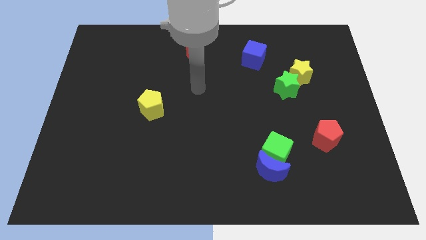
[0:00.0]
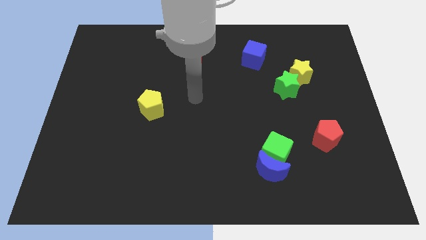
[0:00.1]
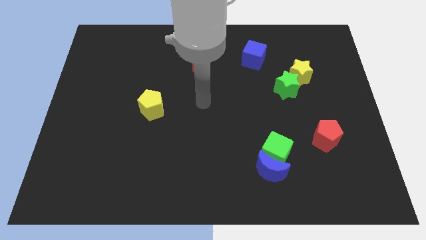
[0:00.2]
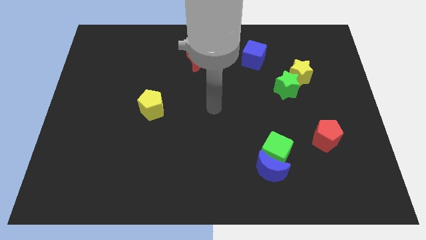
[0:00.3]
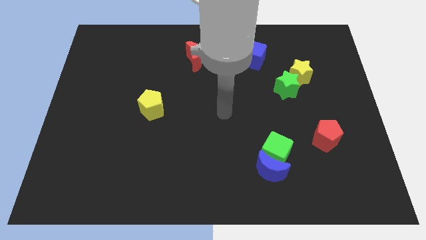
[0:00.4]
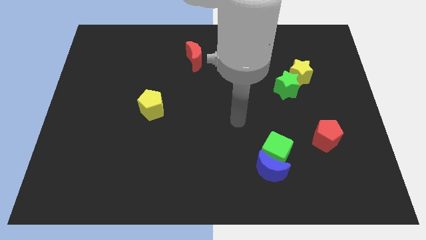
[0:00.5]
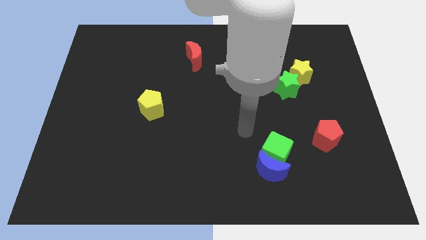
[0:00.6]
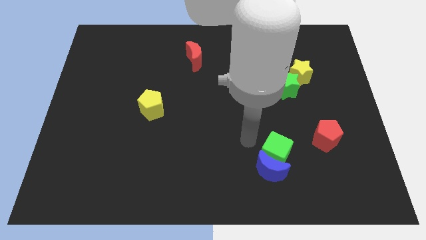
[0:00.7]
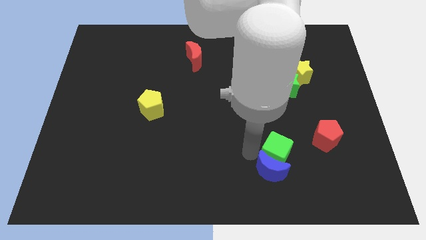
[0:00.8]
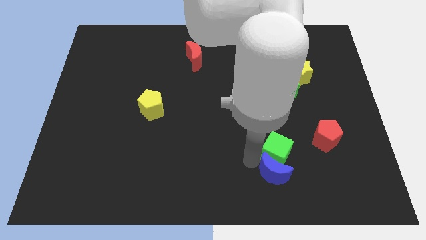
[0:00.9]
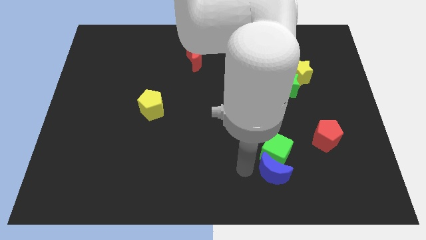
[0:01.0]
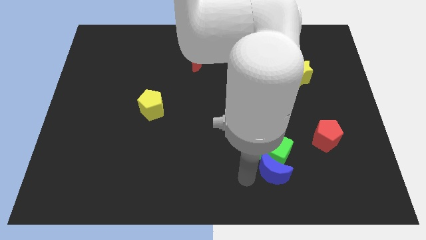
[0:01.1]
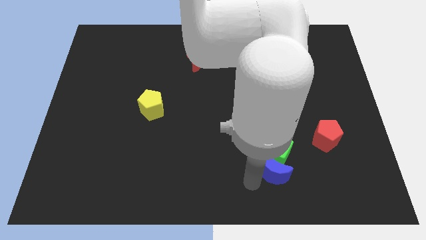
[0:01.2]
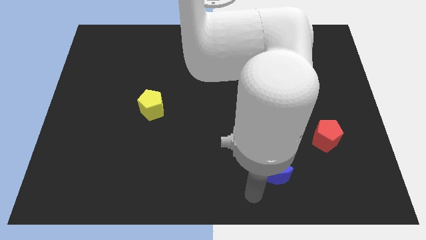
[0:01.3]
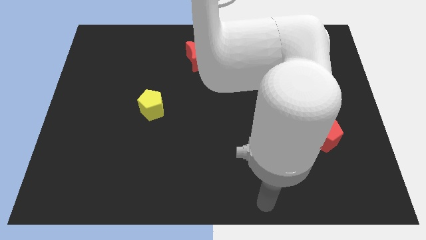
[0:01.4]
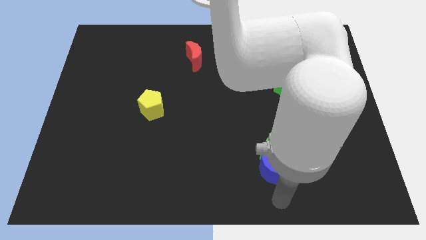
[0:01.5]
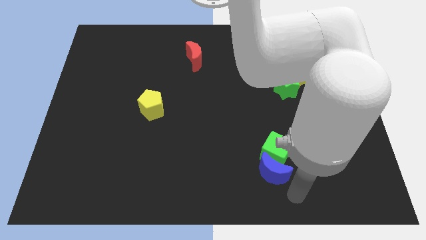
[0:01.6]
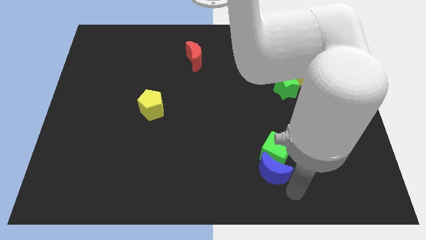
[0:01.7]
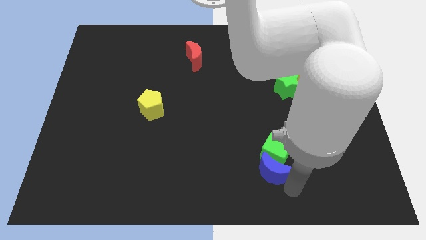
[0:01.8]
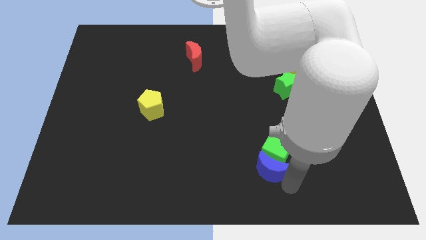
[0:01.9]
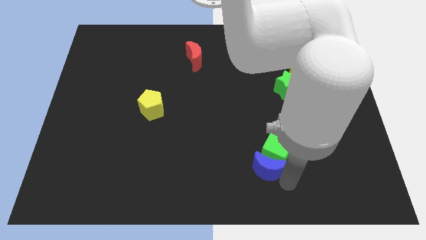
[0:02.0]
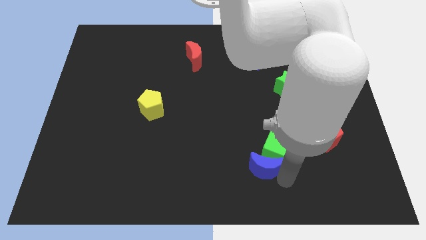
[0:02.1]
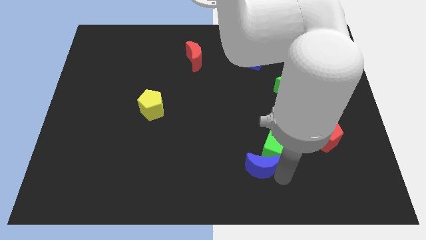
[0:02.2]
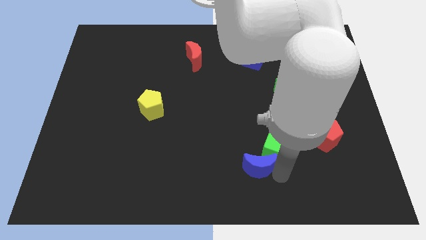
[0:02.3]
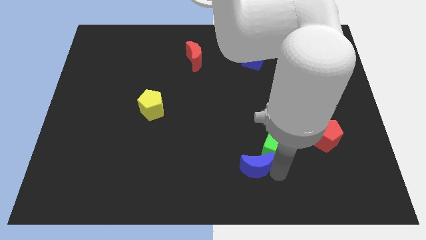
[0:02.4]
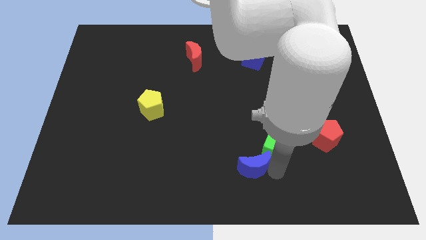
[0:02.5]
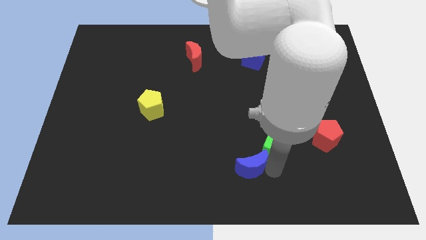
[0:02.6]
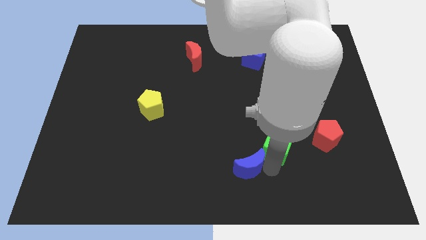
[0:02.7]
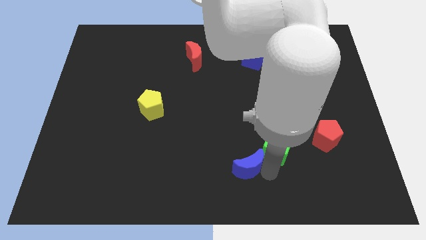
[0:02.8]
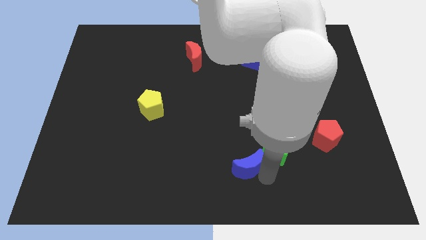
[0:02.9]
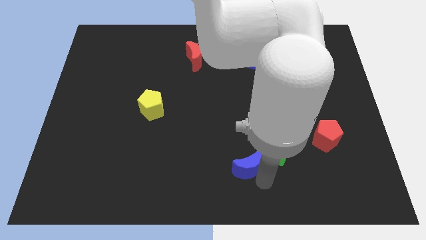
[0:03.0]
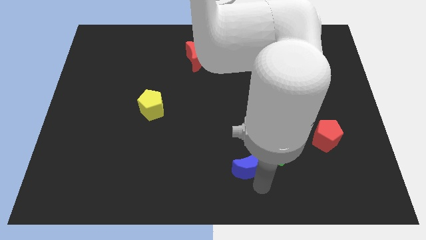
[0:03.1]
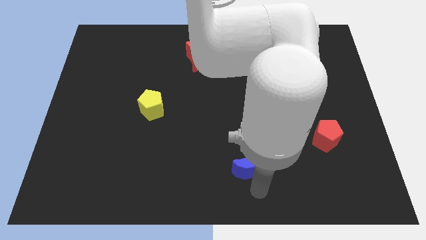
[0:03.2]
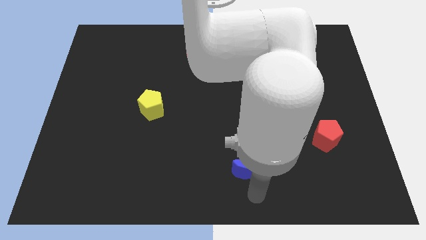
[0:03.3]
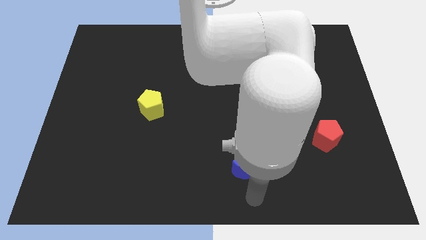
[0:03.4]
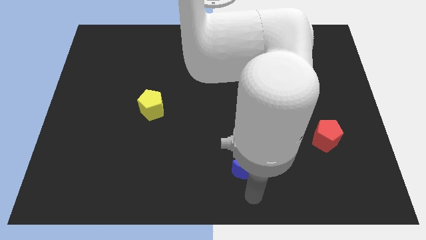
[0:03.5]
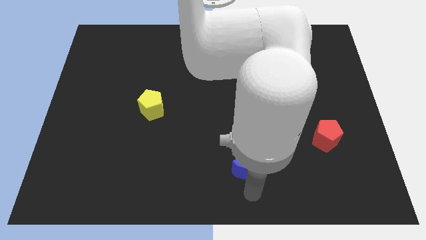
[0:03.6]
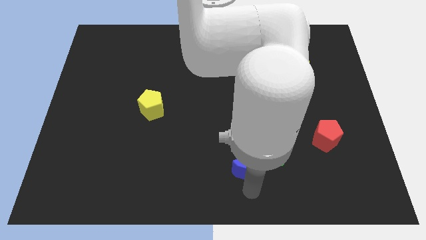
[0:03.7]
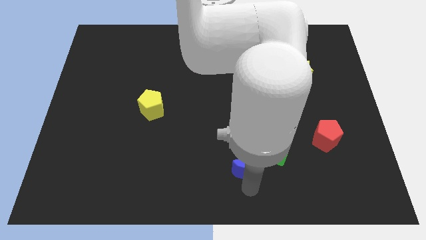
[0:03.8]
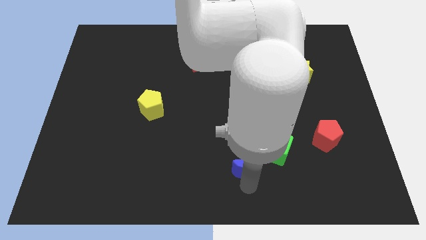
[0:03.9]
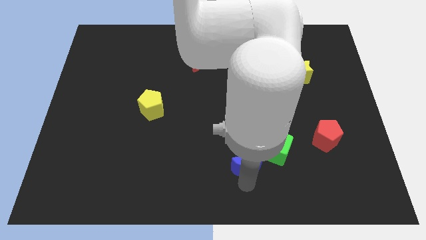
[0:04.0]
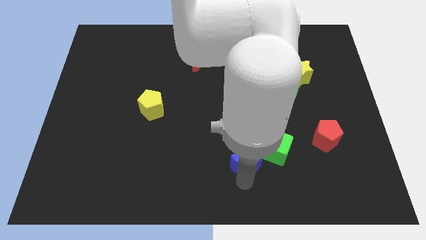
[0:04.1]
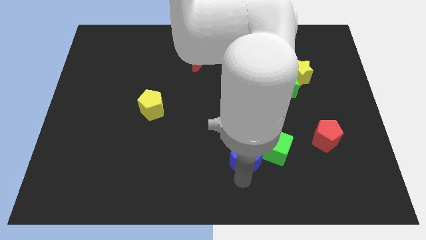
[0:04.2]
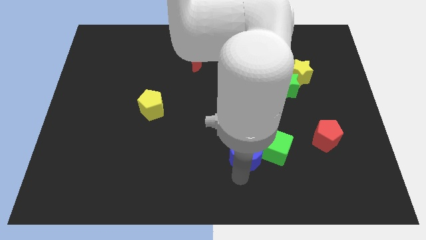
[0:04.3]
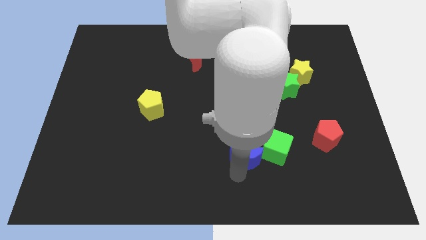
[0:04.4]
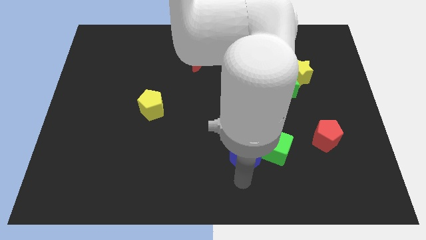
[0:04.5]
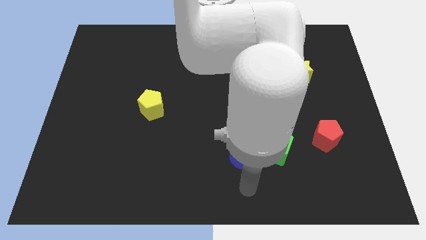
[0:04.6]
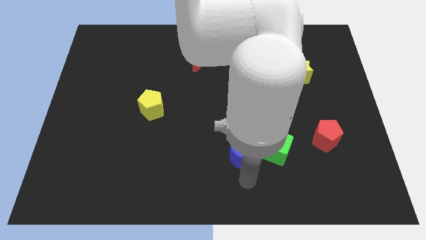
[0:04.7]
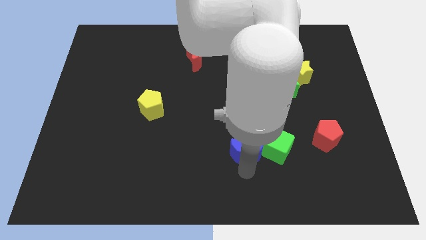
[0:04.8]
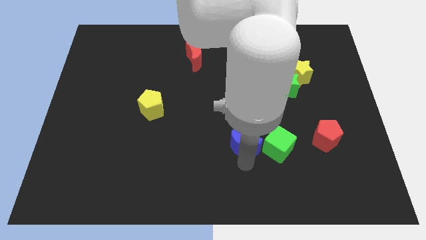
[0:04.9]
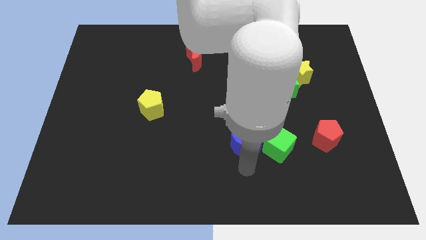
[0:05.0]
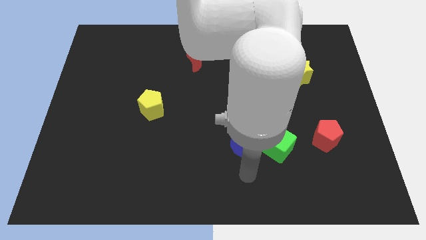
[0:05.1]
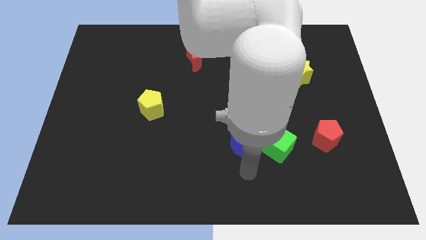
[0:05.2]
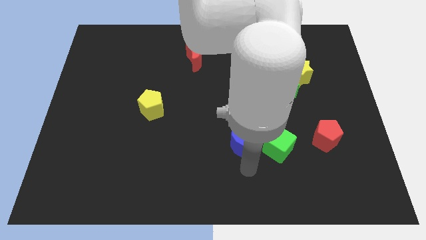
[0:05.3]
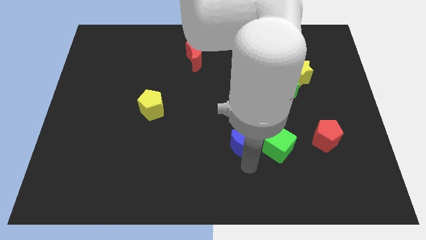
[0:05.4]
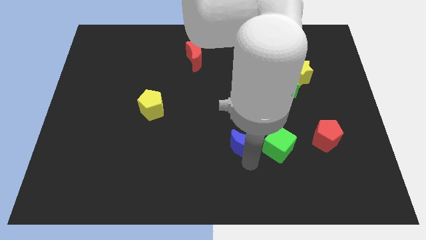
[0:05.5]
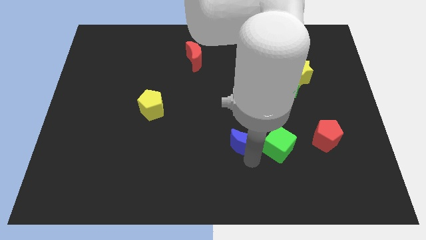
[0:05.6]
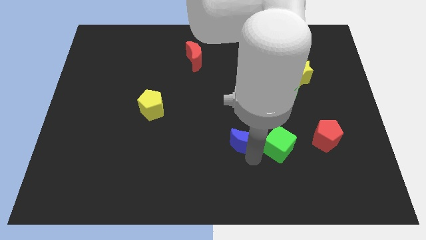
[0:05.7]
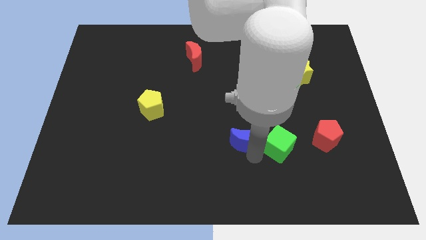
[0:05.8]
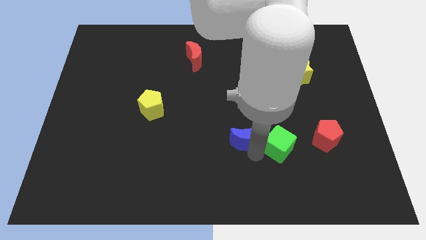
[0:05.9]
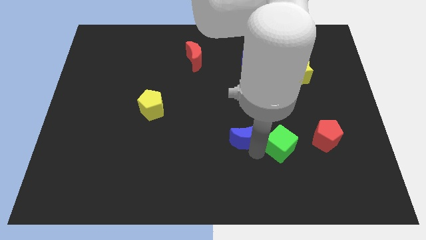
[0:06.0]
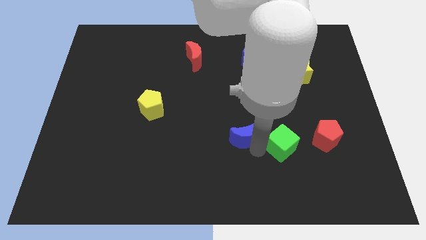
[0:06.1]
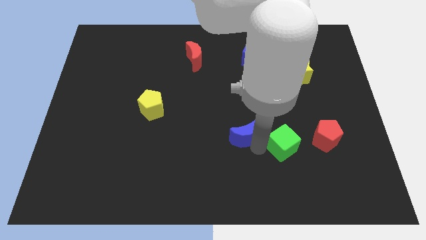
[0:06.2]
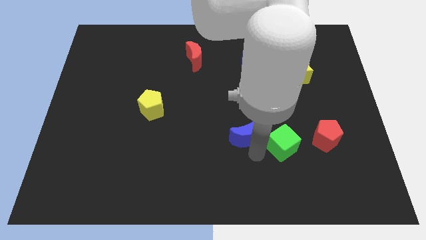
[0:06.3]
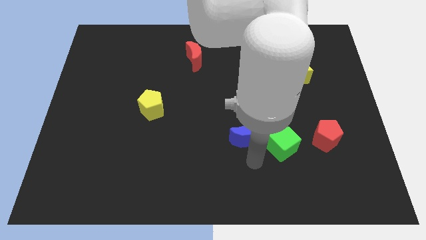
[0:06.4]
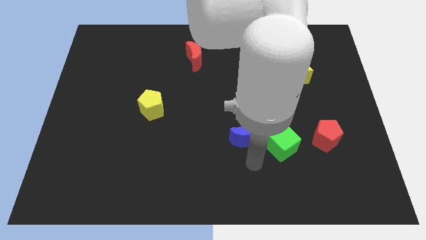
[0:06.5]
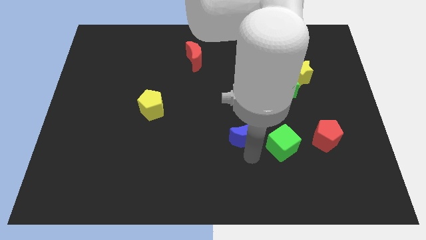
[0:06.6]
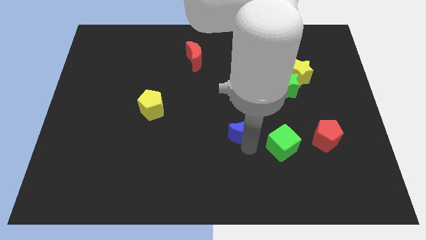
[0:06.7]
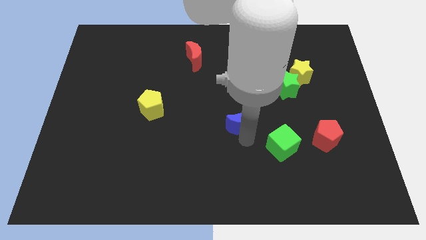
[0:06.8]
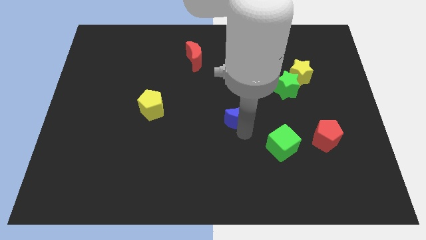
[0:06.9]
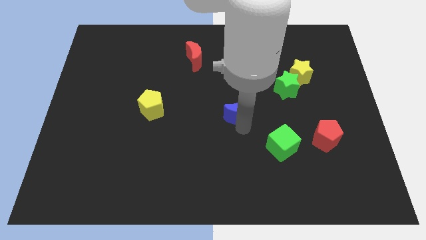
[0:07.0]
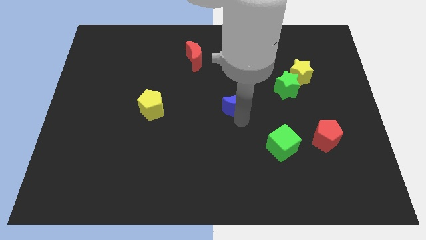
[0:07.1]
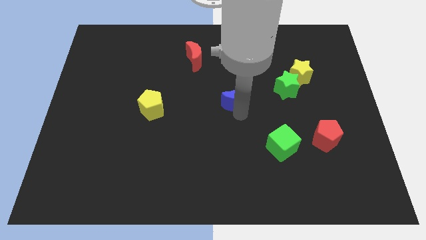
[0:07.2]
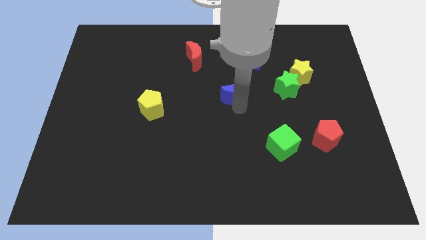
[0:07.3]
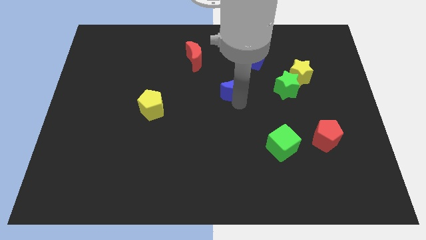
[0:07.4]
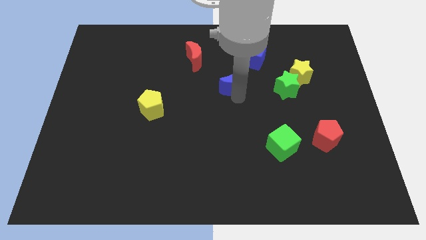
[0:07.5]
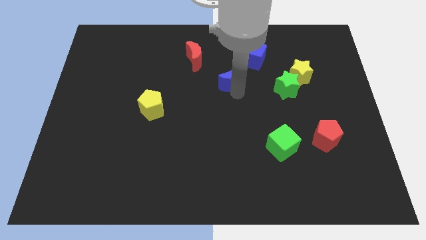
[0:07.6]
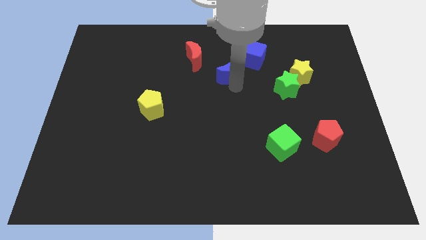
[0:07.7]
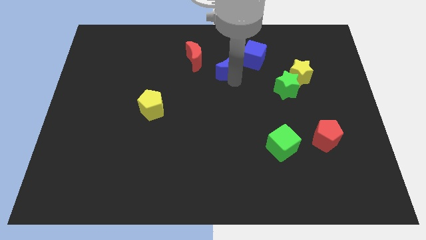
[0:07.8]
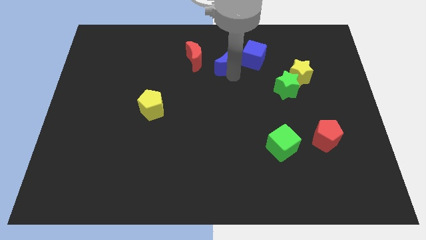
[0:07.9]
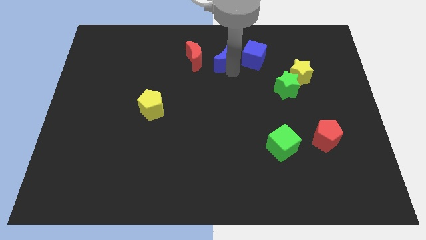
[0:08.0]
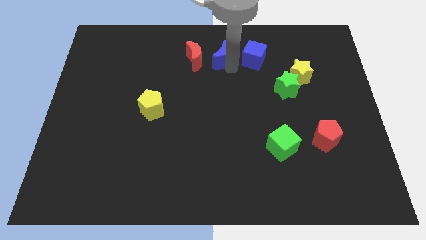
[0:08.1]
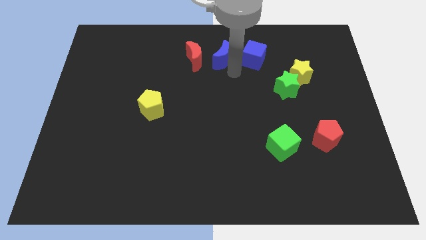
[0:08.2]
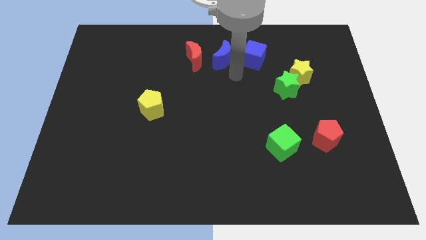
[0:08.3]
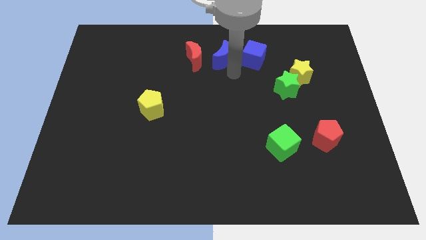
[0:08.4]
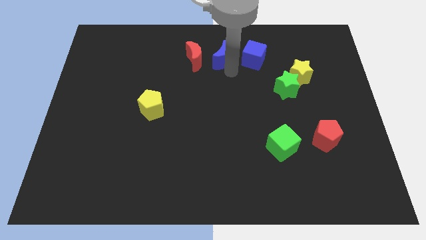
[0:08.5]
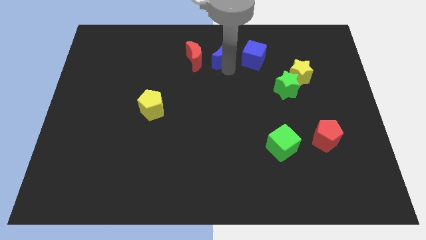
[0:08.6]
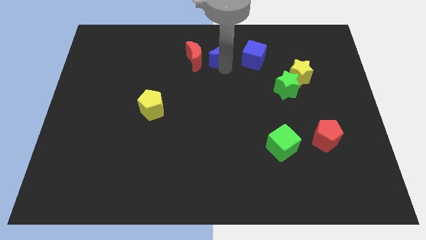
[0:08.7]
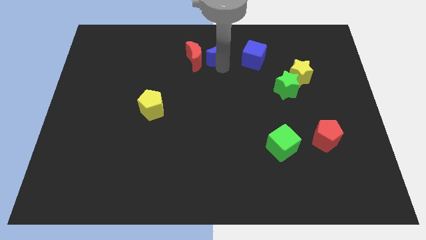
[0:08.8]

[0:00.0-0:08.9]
move the blue moon to the towards your base
